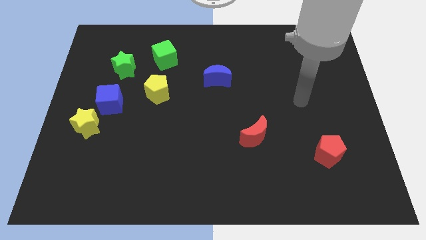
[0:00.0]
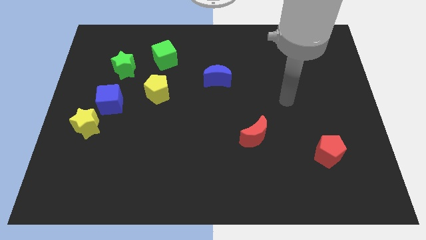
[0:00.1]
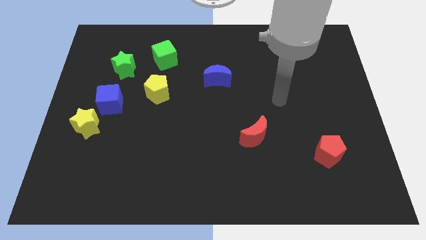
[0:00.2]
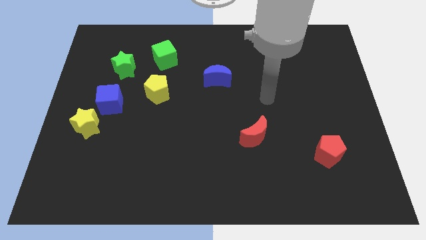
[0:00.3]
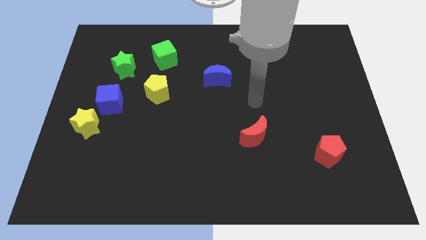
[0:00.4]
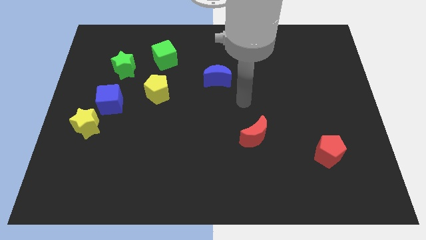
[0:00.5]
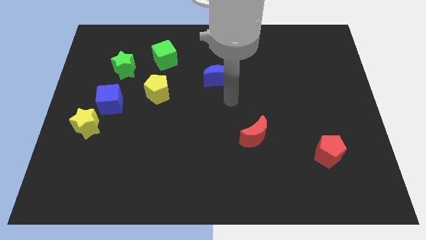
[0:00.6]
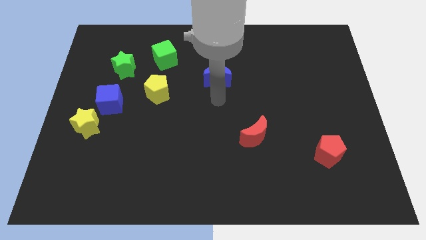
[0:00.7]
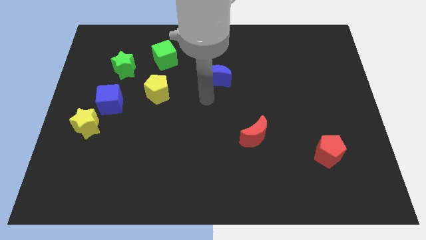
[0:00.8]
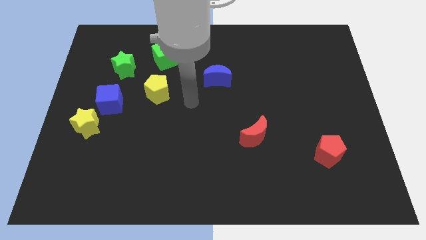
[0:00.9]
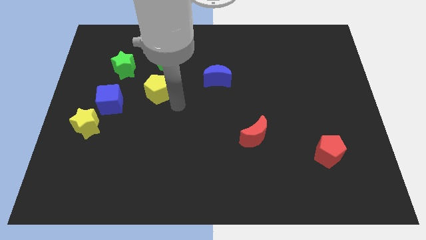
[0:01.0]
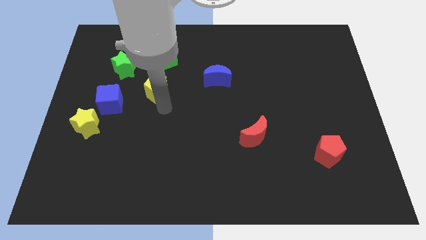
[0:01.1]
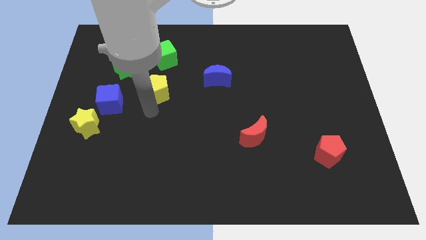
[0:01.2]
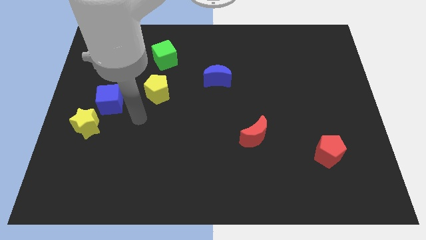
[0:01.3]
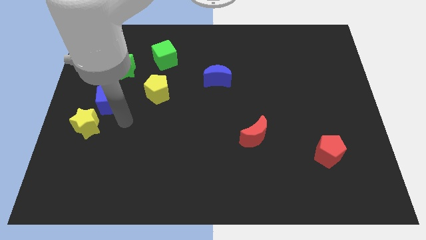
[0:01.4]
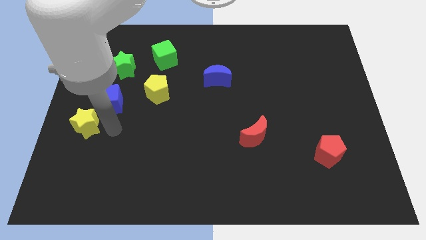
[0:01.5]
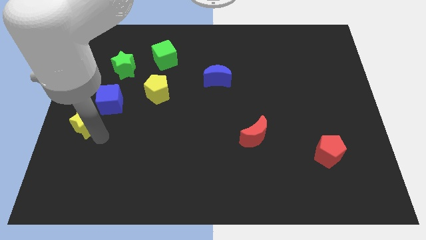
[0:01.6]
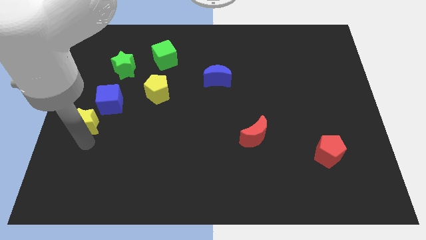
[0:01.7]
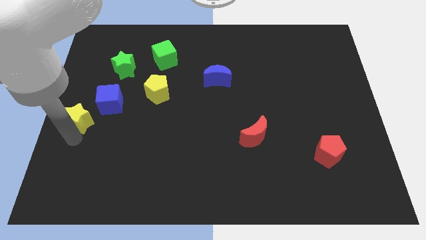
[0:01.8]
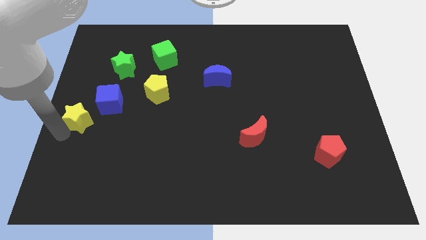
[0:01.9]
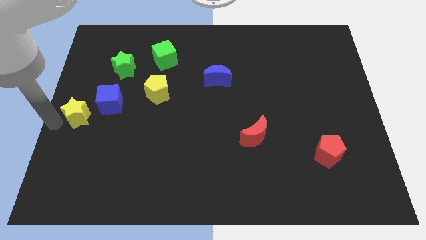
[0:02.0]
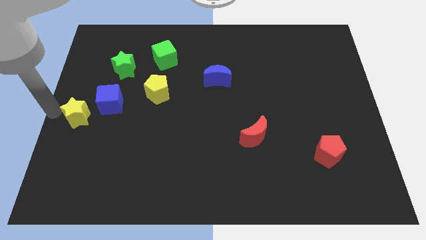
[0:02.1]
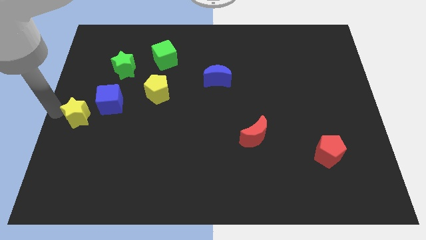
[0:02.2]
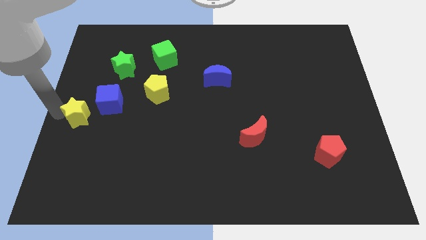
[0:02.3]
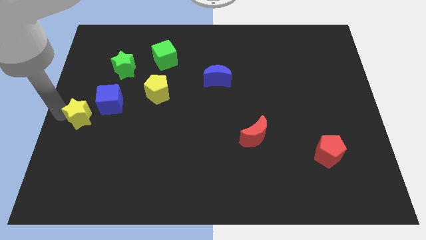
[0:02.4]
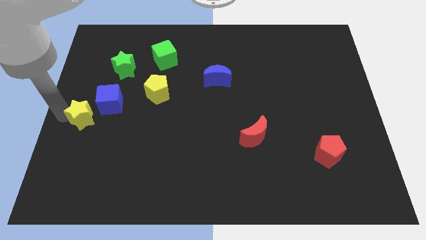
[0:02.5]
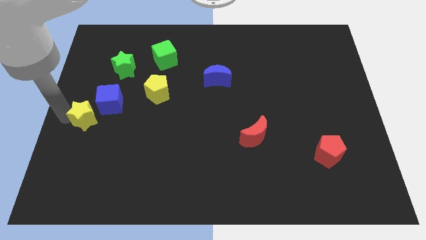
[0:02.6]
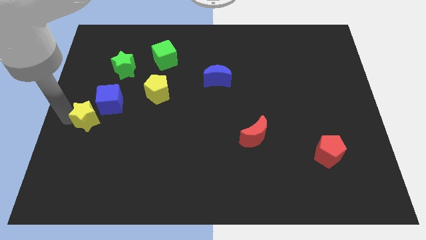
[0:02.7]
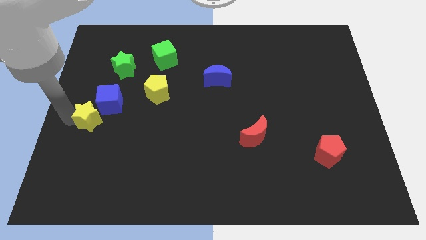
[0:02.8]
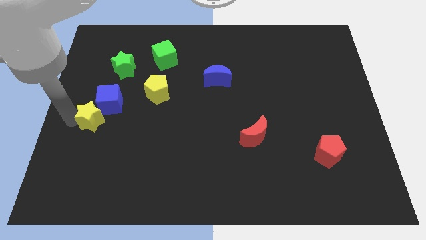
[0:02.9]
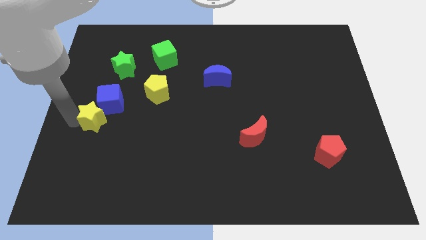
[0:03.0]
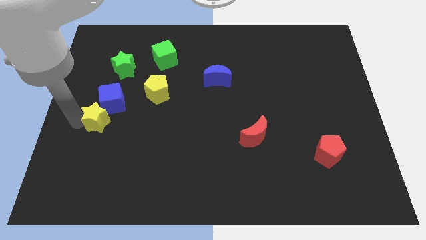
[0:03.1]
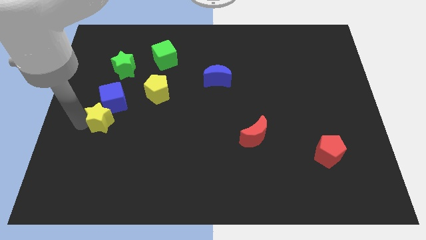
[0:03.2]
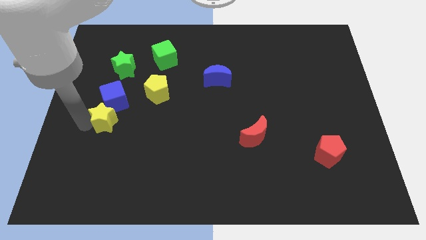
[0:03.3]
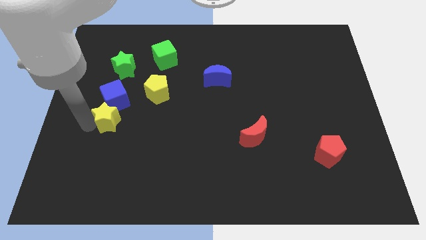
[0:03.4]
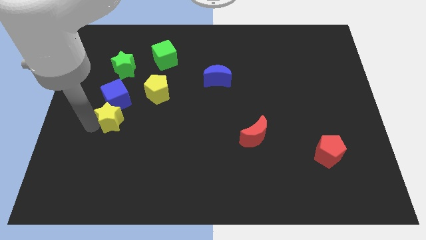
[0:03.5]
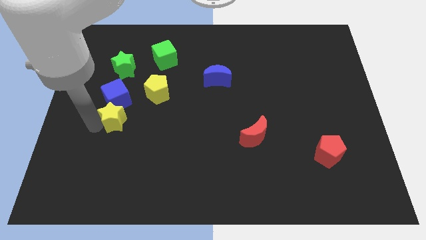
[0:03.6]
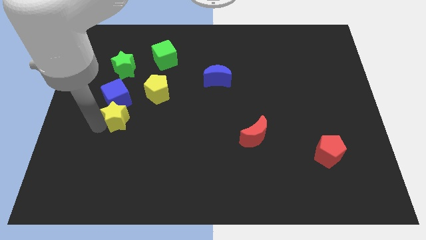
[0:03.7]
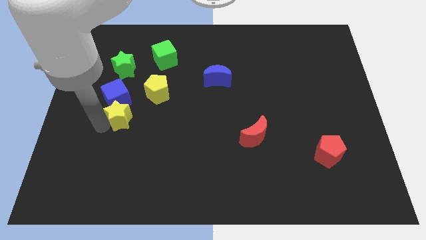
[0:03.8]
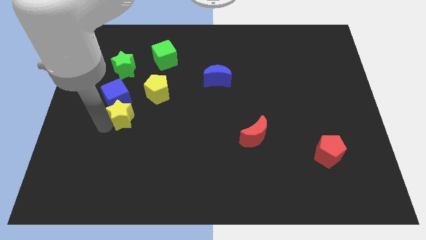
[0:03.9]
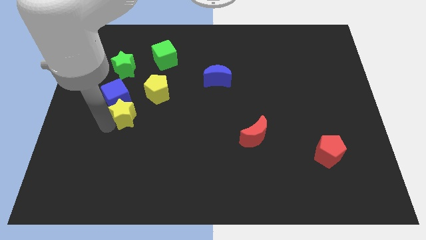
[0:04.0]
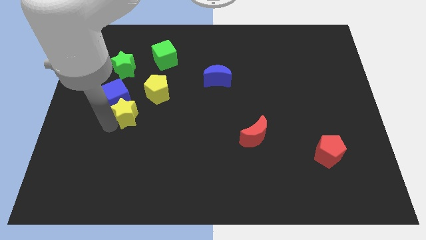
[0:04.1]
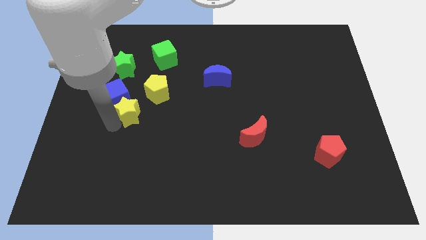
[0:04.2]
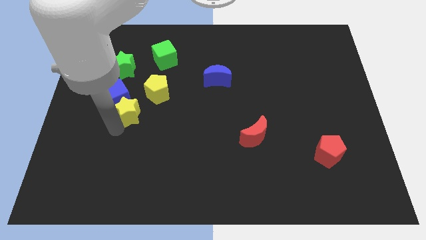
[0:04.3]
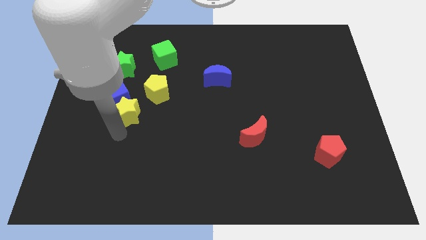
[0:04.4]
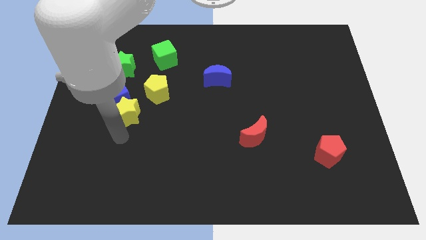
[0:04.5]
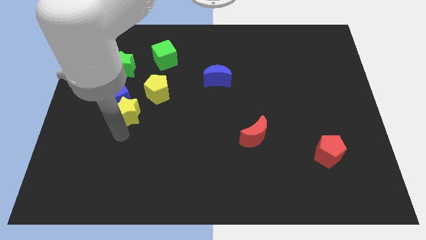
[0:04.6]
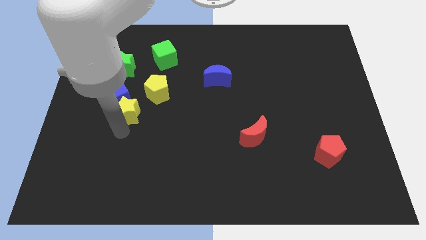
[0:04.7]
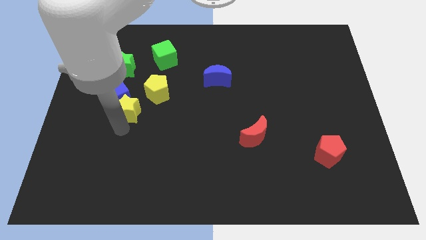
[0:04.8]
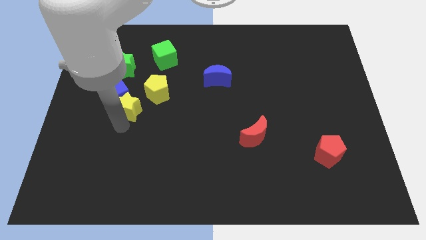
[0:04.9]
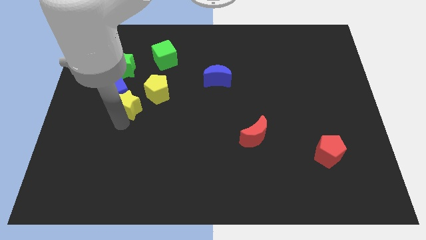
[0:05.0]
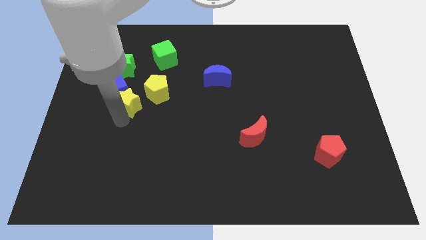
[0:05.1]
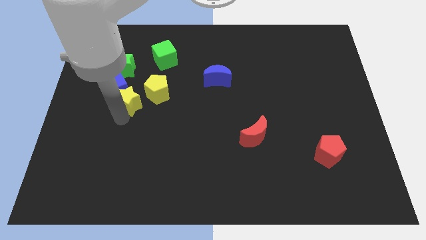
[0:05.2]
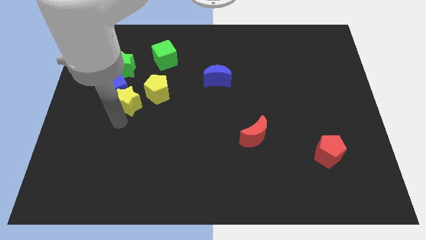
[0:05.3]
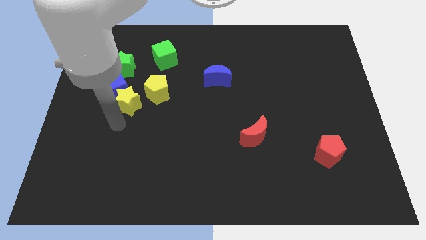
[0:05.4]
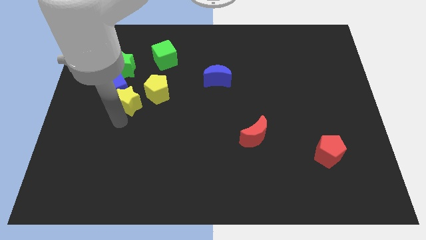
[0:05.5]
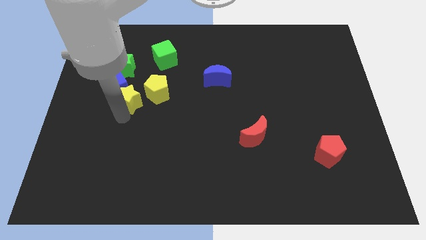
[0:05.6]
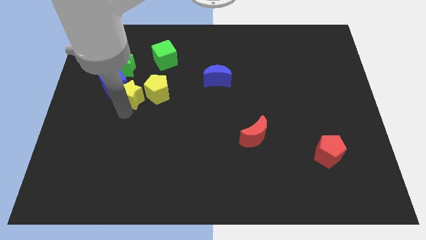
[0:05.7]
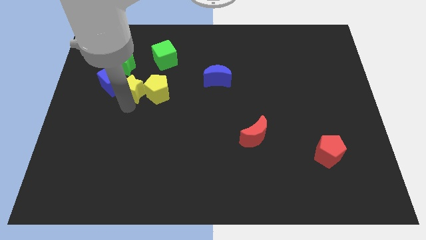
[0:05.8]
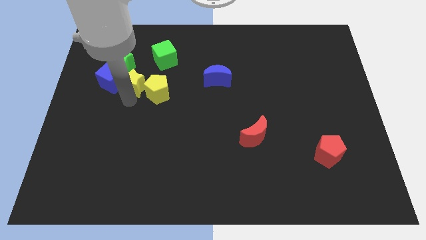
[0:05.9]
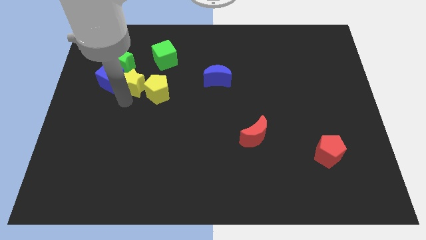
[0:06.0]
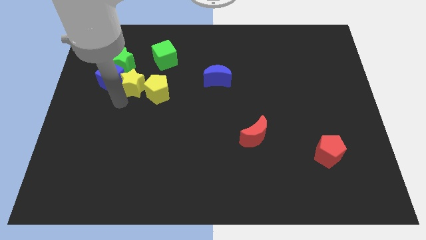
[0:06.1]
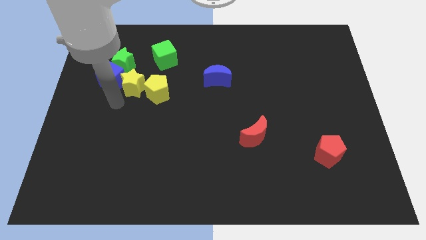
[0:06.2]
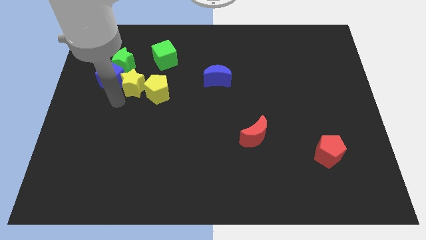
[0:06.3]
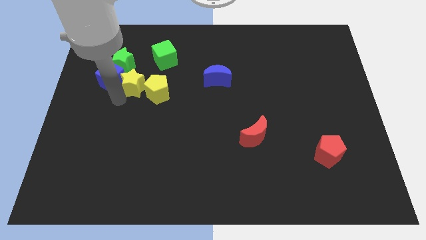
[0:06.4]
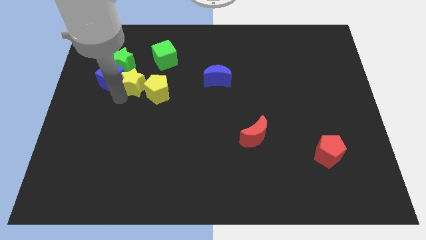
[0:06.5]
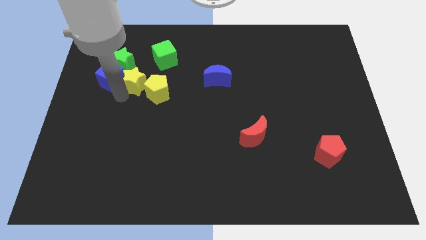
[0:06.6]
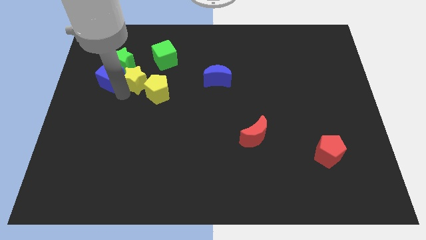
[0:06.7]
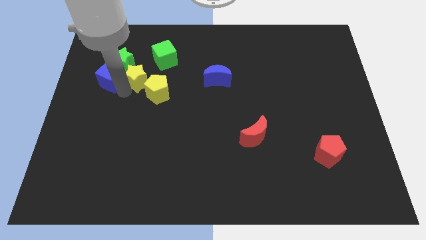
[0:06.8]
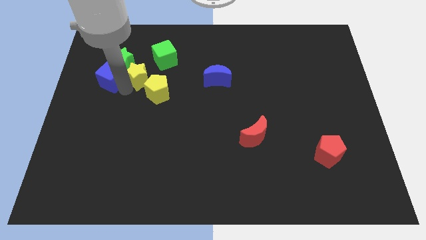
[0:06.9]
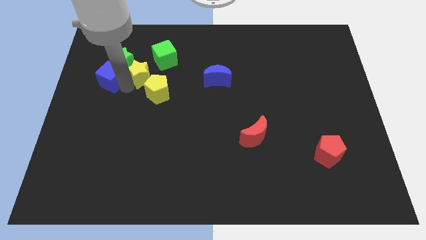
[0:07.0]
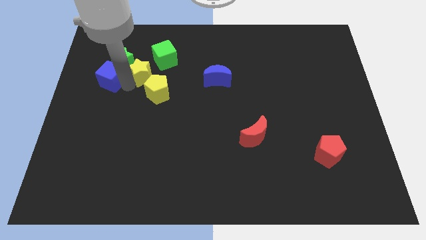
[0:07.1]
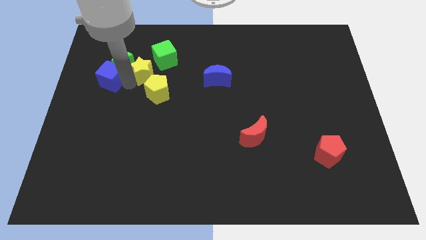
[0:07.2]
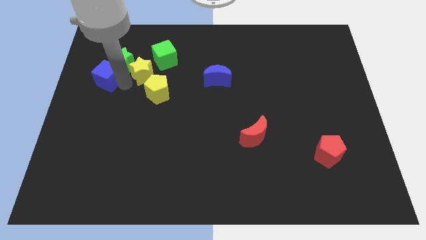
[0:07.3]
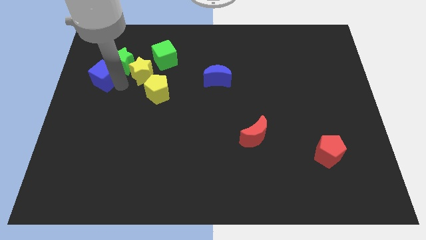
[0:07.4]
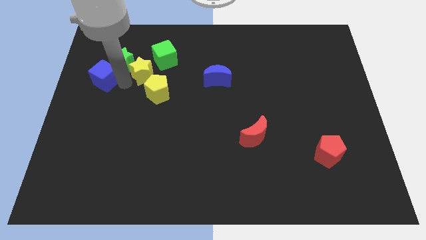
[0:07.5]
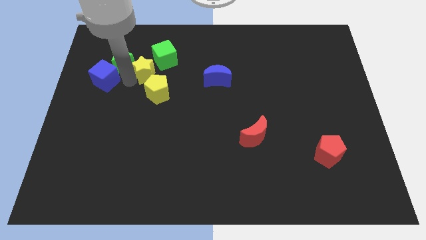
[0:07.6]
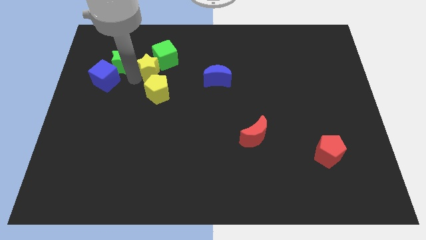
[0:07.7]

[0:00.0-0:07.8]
push the yellow star next to the green cube

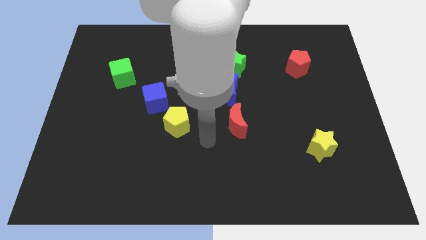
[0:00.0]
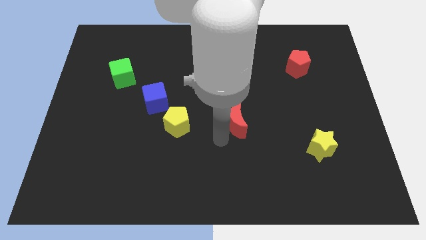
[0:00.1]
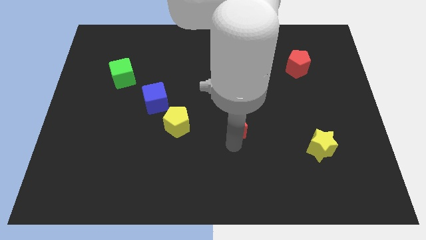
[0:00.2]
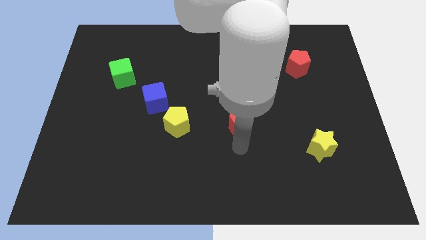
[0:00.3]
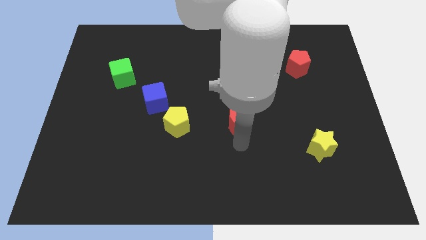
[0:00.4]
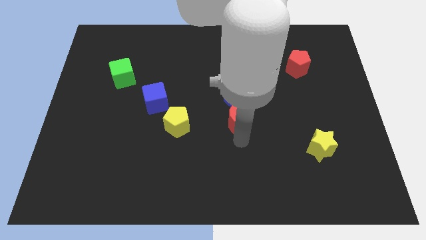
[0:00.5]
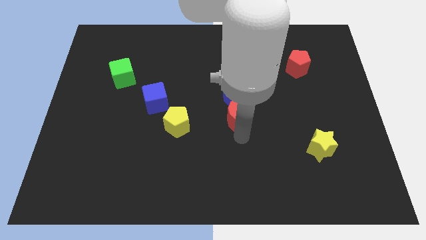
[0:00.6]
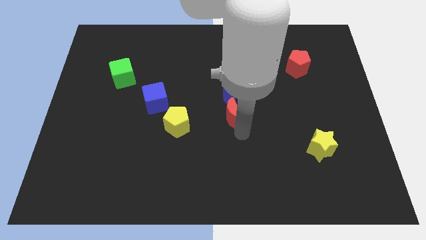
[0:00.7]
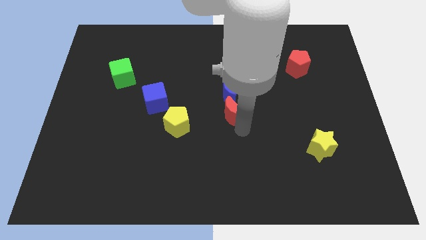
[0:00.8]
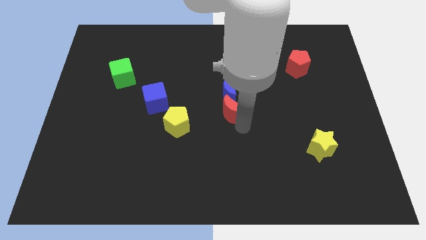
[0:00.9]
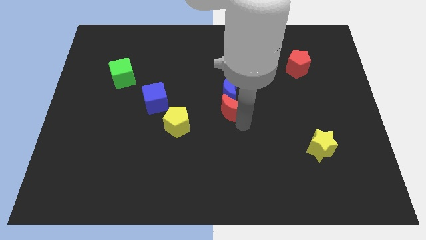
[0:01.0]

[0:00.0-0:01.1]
slide the red moon next to the blue moon
